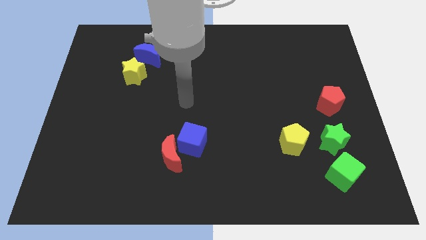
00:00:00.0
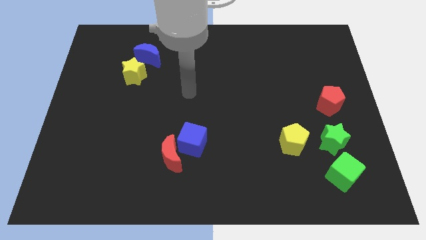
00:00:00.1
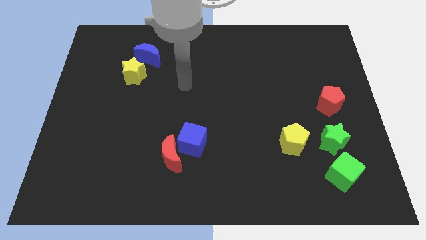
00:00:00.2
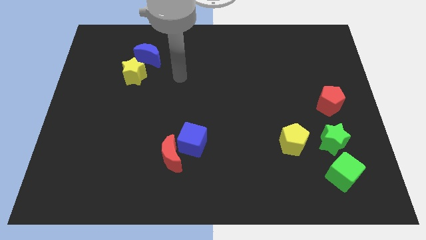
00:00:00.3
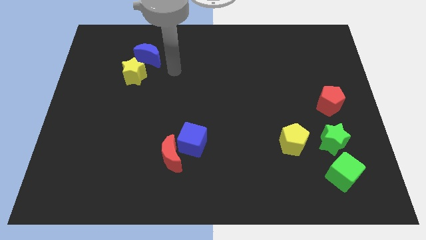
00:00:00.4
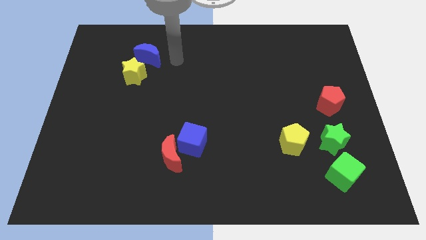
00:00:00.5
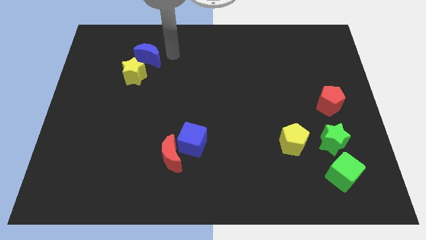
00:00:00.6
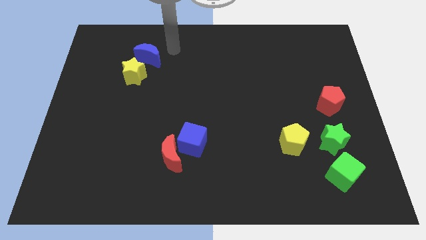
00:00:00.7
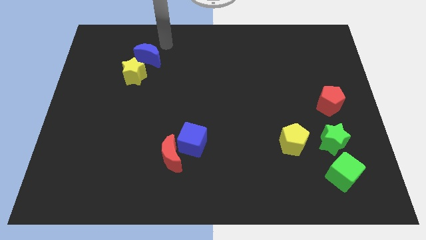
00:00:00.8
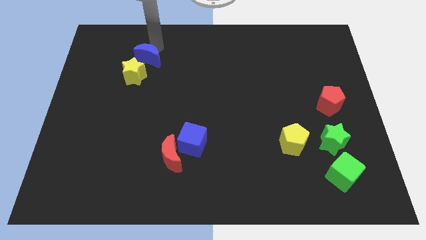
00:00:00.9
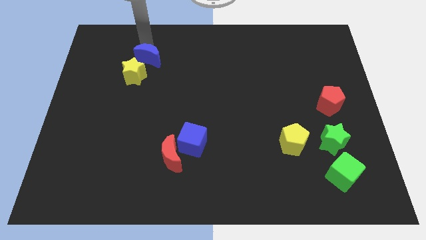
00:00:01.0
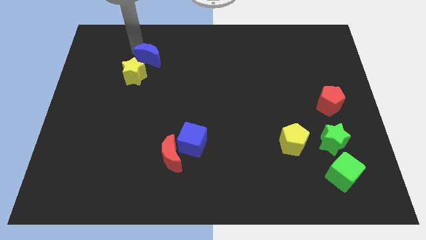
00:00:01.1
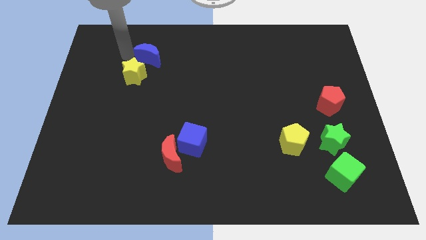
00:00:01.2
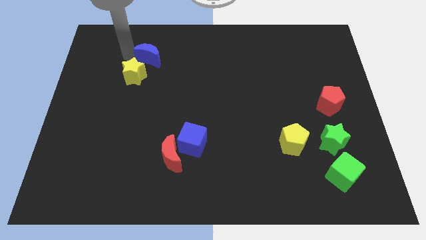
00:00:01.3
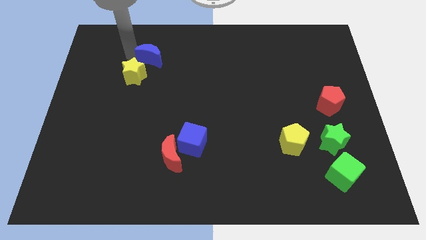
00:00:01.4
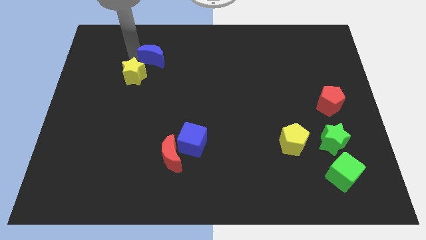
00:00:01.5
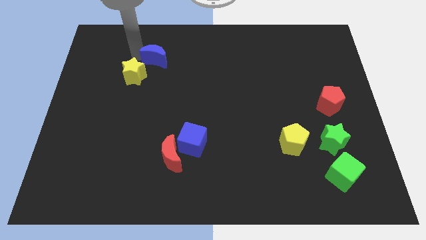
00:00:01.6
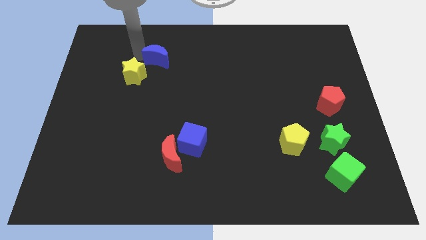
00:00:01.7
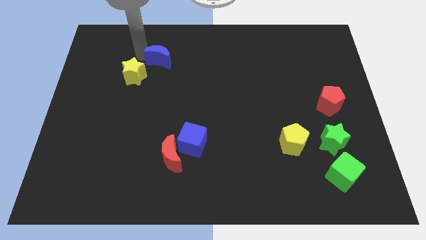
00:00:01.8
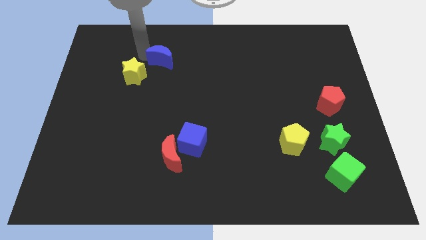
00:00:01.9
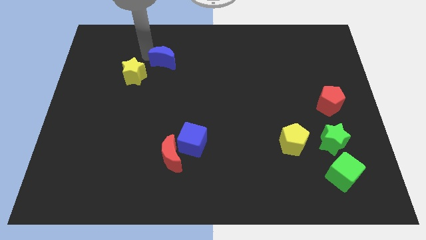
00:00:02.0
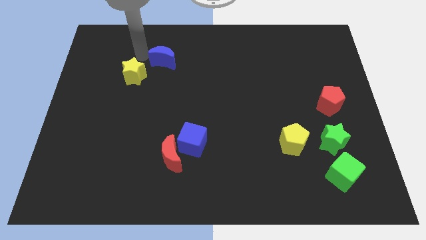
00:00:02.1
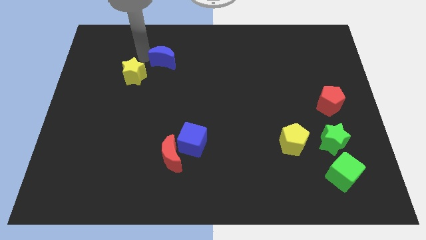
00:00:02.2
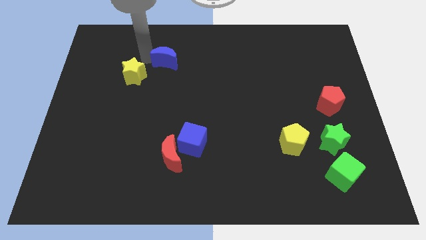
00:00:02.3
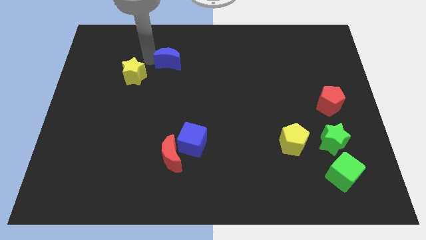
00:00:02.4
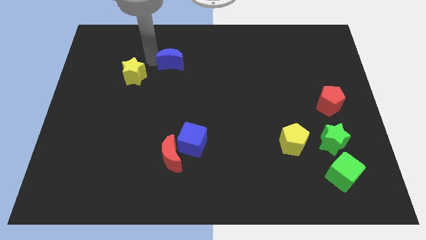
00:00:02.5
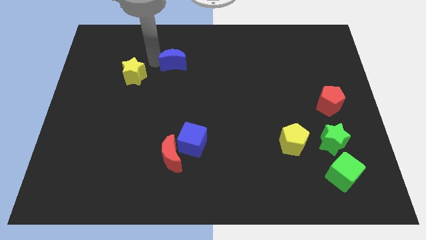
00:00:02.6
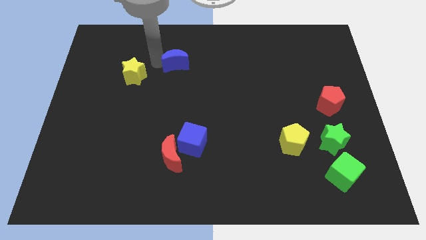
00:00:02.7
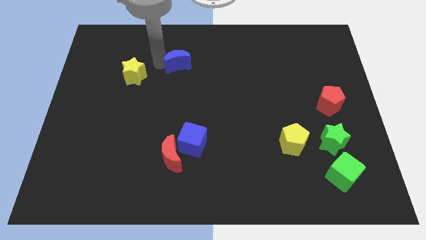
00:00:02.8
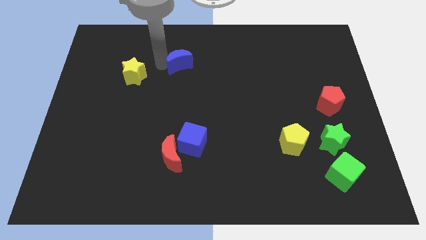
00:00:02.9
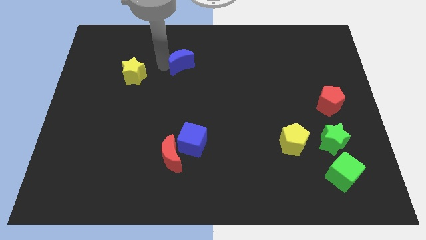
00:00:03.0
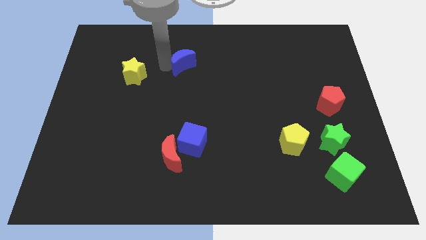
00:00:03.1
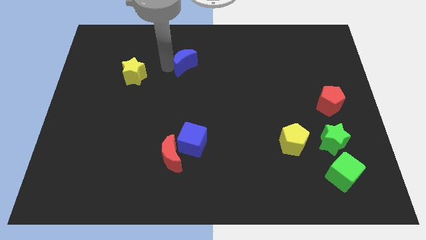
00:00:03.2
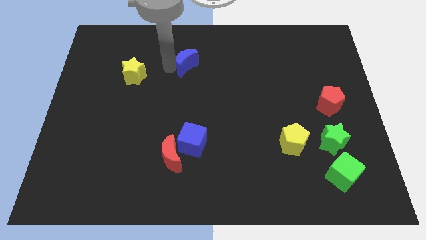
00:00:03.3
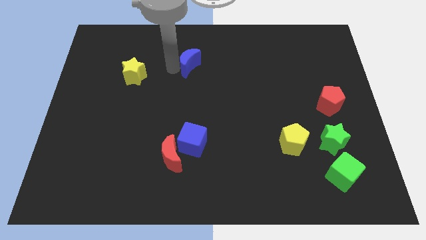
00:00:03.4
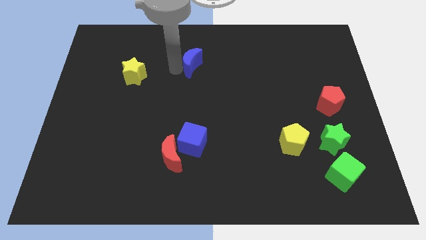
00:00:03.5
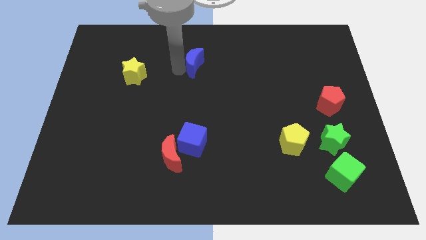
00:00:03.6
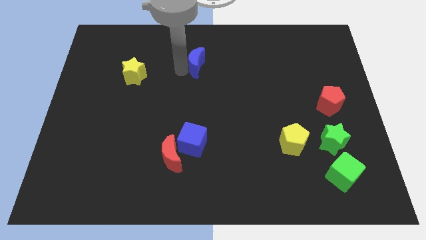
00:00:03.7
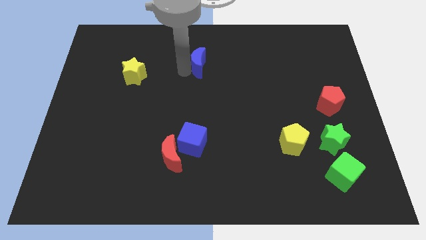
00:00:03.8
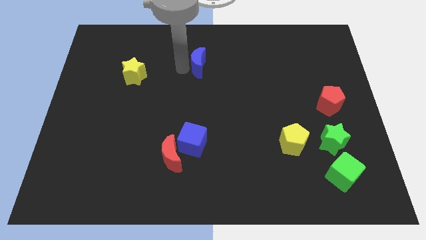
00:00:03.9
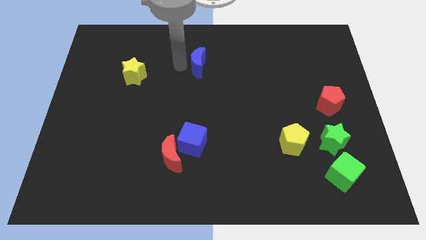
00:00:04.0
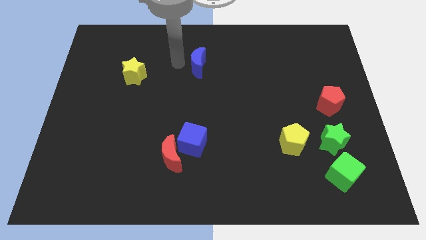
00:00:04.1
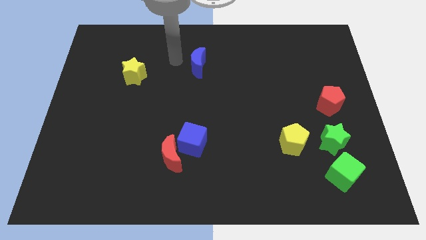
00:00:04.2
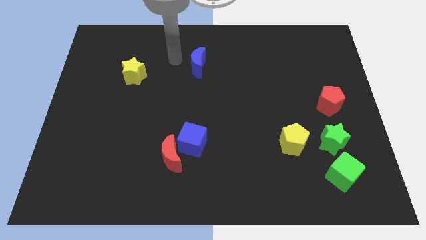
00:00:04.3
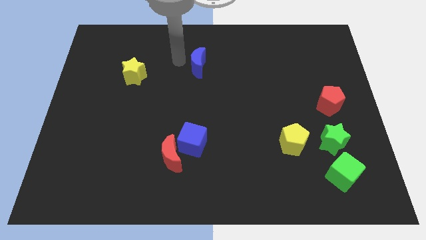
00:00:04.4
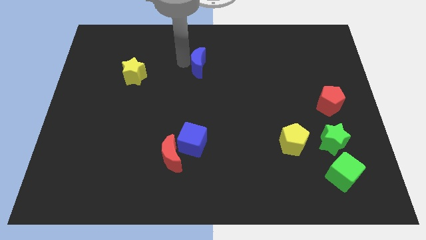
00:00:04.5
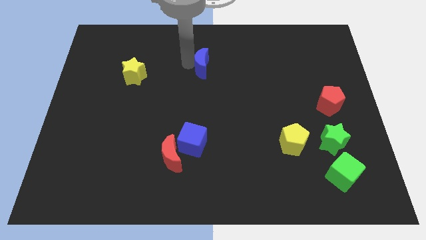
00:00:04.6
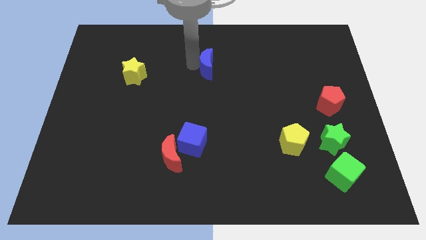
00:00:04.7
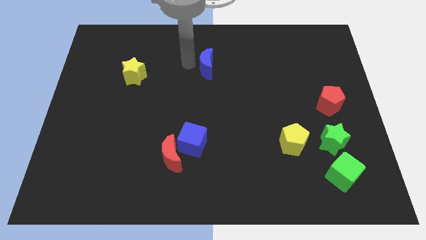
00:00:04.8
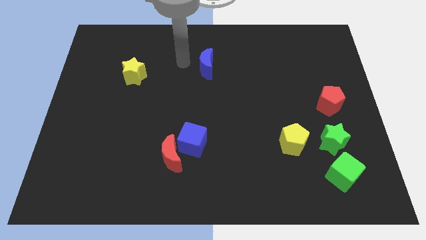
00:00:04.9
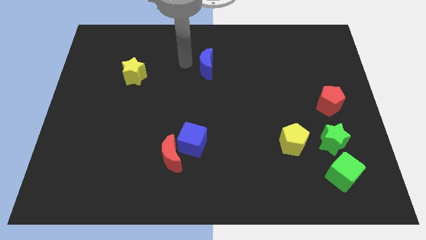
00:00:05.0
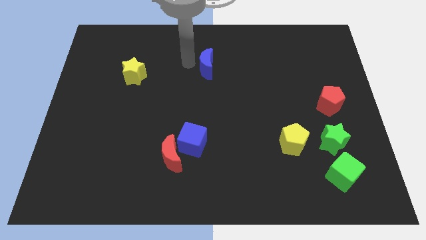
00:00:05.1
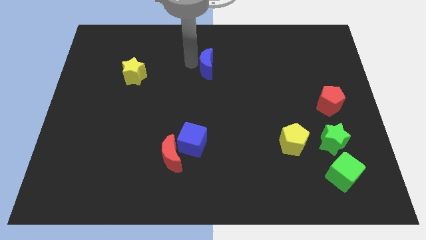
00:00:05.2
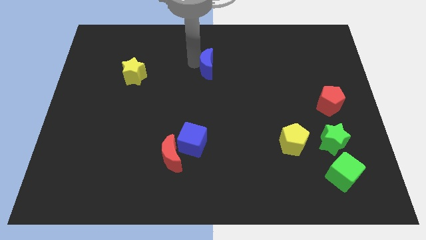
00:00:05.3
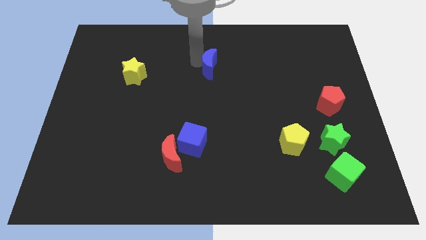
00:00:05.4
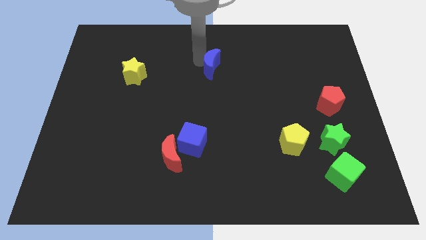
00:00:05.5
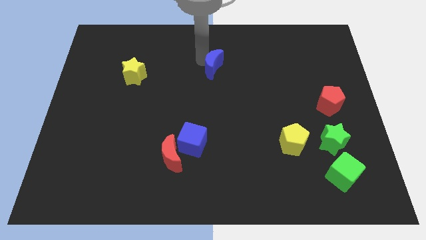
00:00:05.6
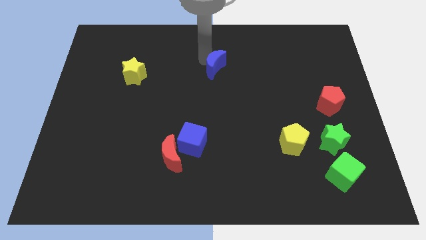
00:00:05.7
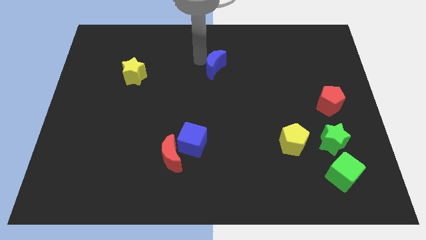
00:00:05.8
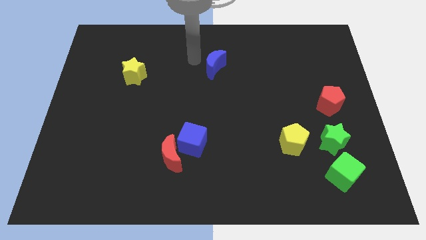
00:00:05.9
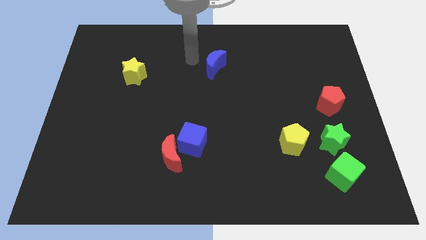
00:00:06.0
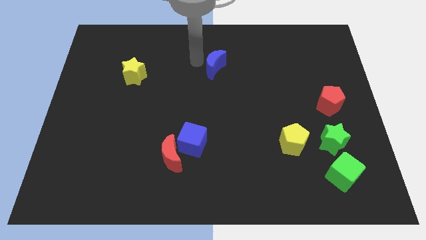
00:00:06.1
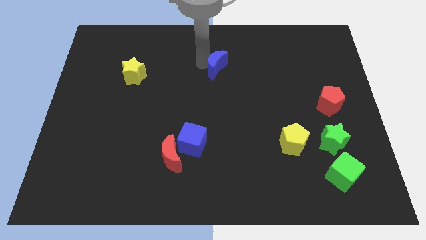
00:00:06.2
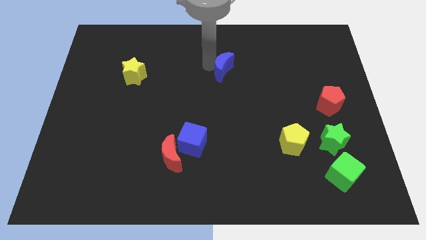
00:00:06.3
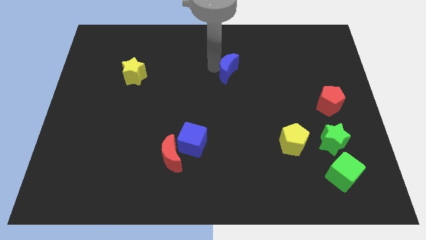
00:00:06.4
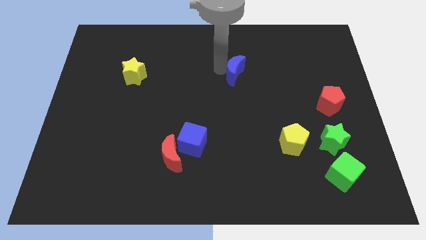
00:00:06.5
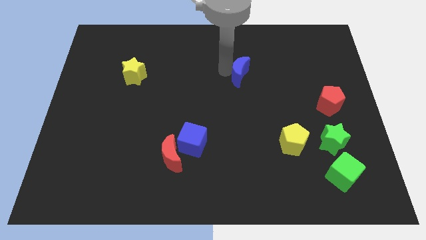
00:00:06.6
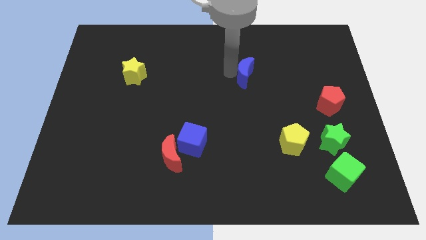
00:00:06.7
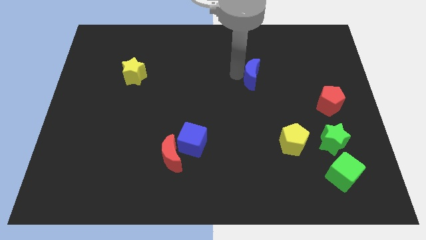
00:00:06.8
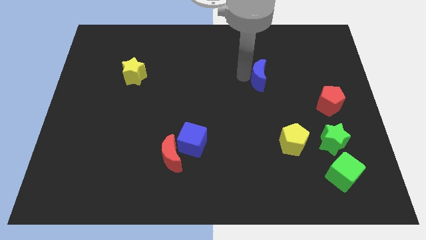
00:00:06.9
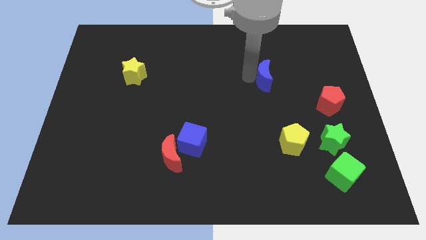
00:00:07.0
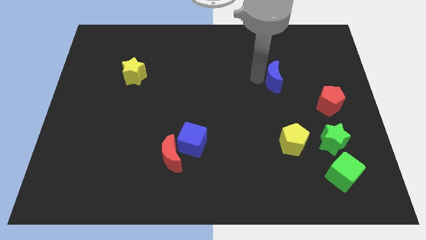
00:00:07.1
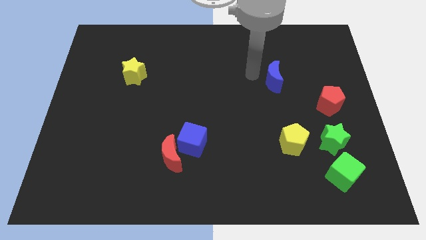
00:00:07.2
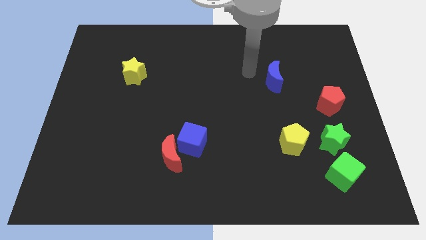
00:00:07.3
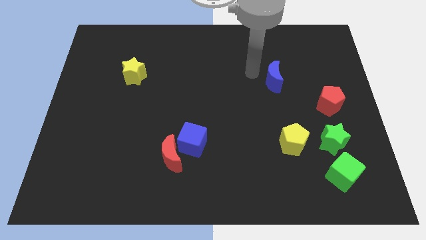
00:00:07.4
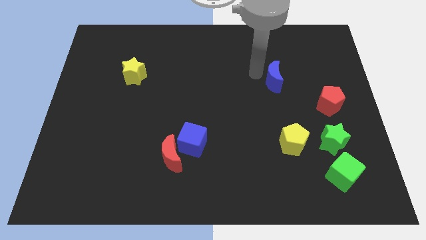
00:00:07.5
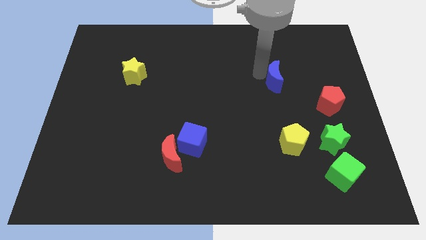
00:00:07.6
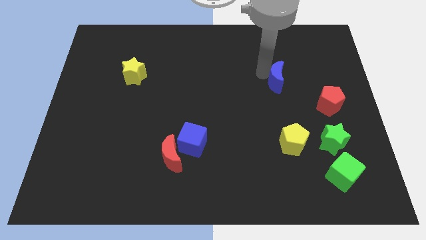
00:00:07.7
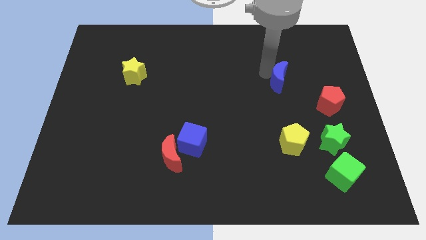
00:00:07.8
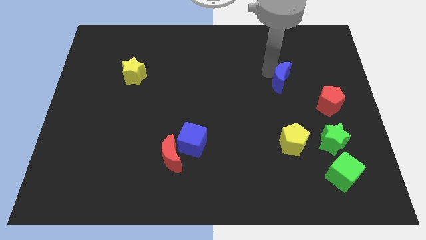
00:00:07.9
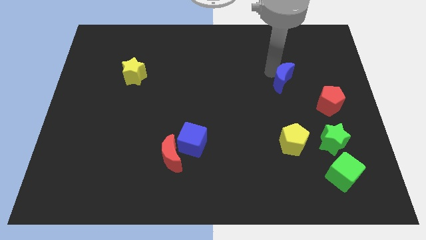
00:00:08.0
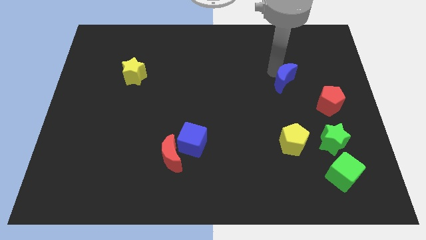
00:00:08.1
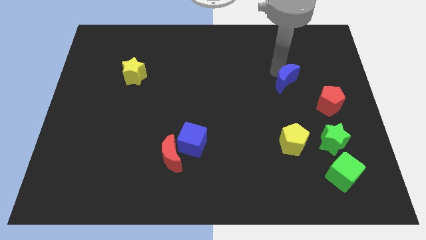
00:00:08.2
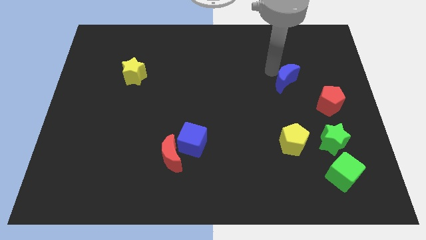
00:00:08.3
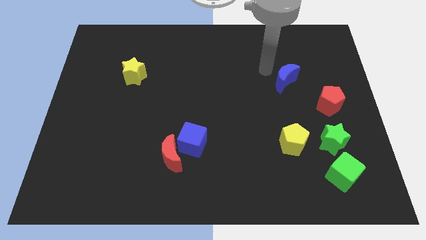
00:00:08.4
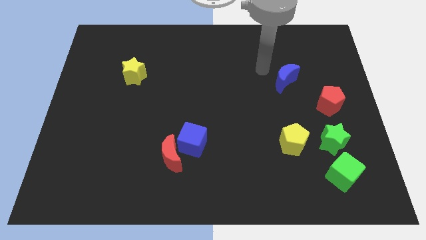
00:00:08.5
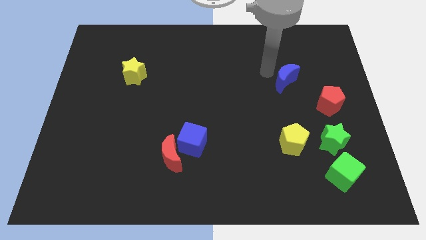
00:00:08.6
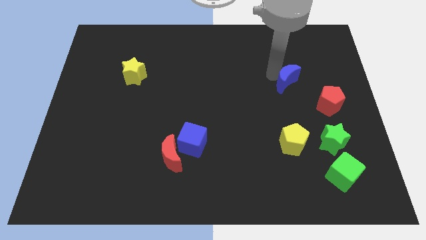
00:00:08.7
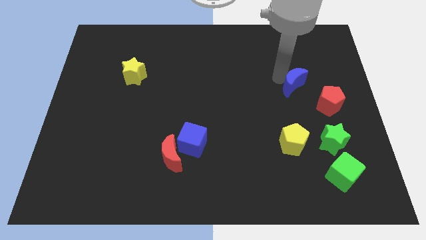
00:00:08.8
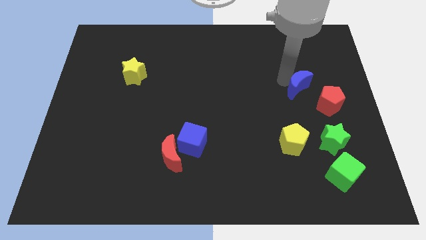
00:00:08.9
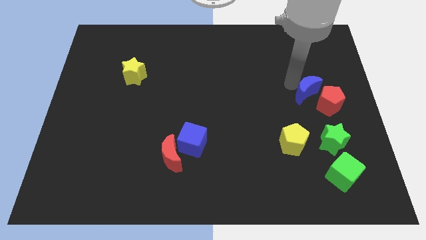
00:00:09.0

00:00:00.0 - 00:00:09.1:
push the blue moon close to the red pentagon
